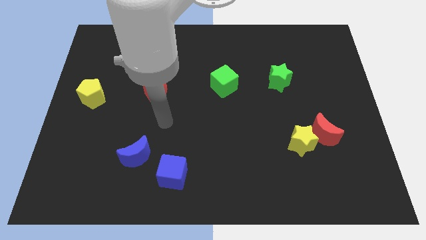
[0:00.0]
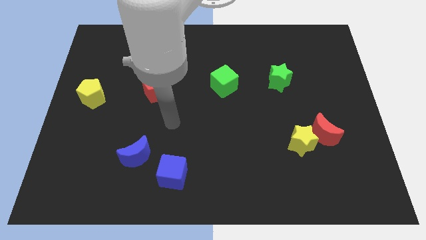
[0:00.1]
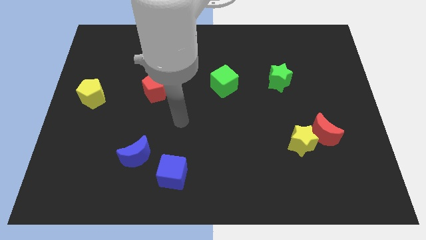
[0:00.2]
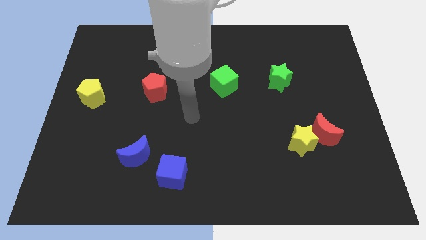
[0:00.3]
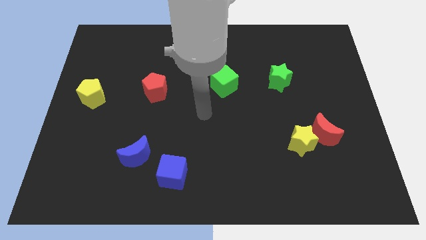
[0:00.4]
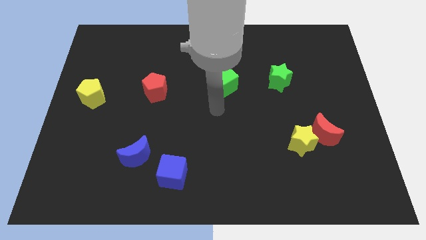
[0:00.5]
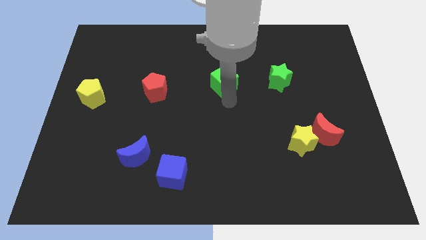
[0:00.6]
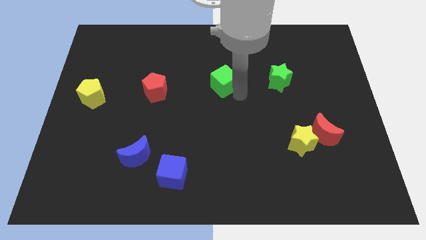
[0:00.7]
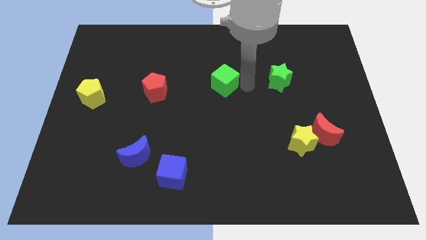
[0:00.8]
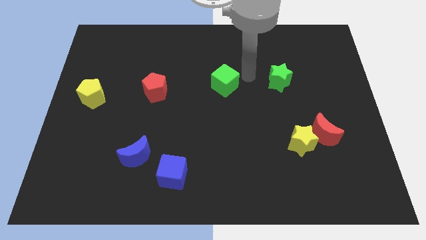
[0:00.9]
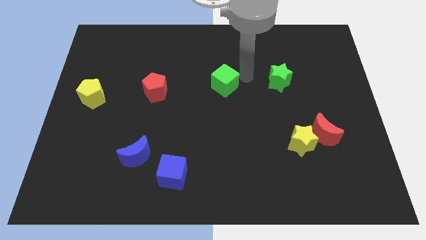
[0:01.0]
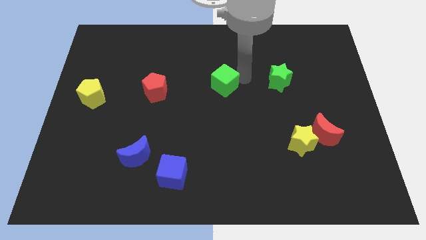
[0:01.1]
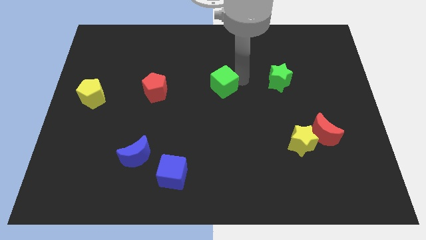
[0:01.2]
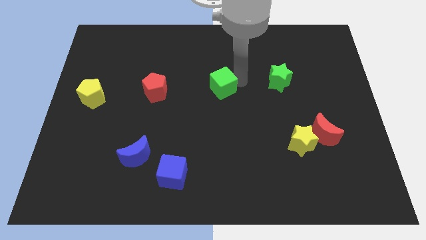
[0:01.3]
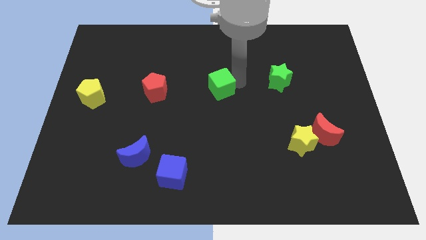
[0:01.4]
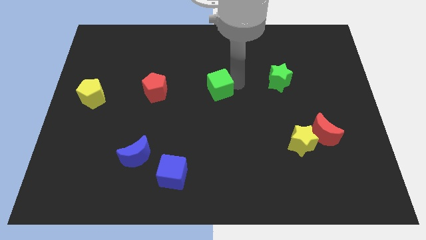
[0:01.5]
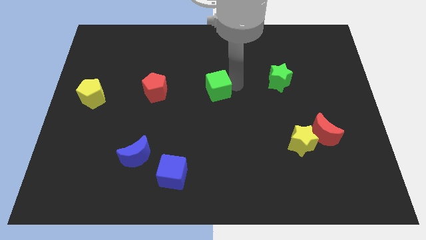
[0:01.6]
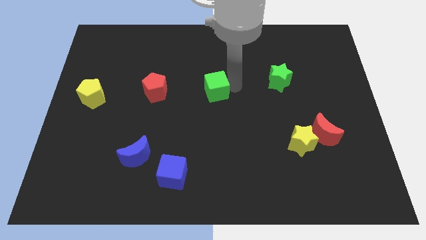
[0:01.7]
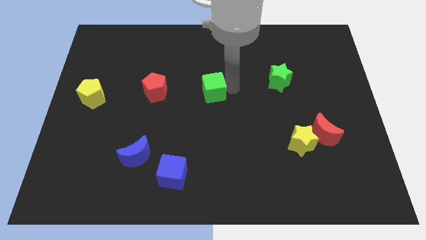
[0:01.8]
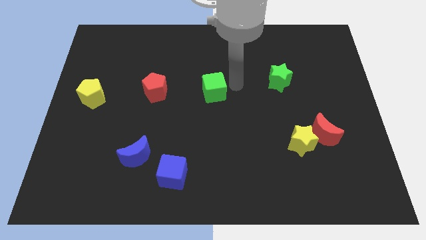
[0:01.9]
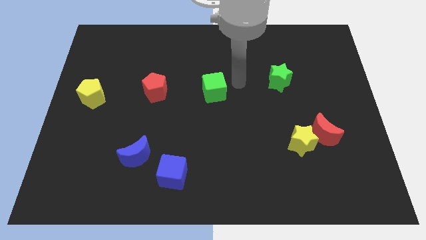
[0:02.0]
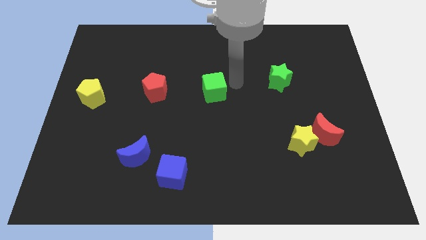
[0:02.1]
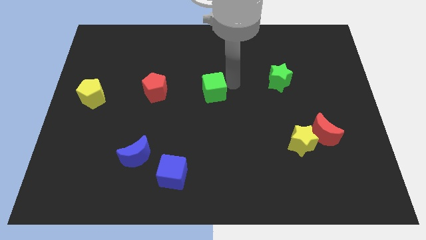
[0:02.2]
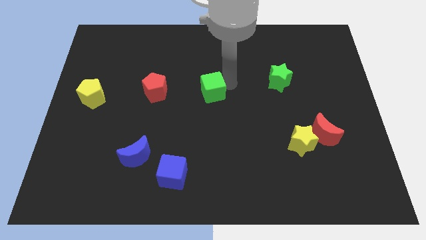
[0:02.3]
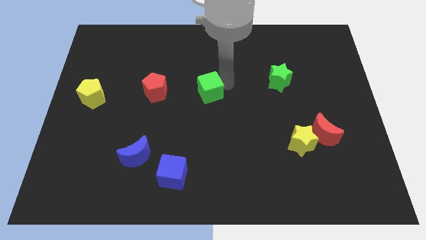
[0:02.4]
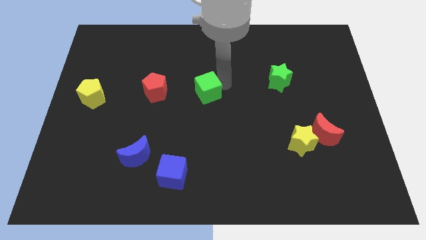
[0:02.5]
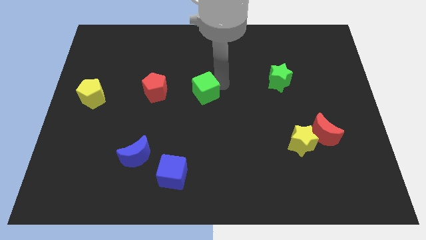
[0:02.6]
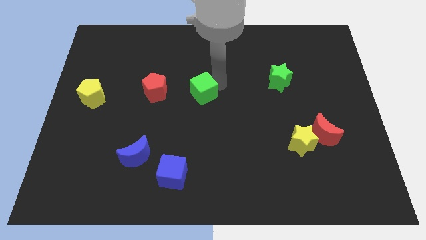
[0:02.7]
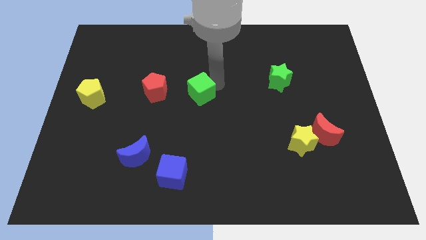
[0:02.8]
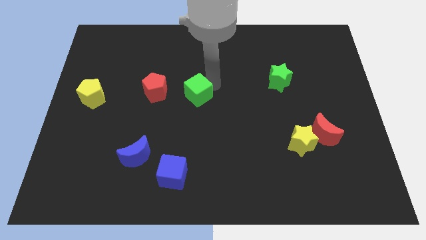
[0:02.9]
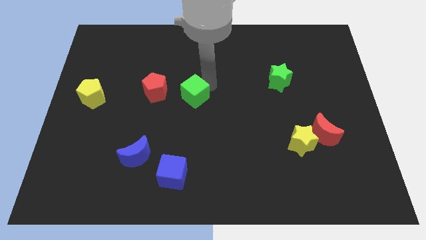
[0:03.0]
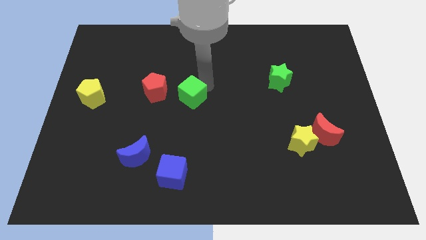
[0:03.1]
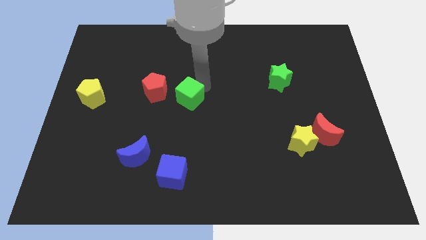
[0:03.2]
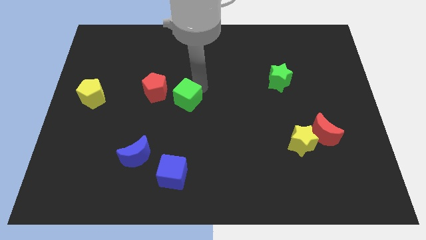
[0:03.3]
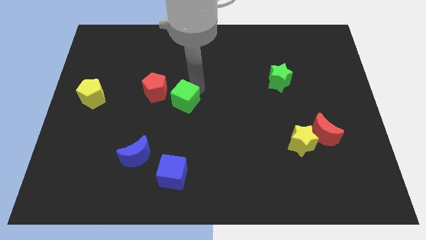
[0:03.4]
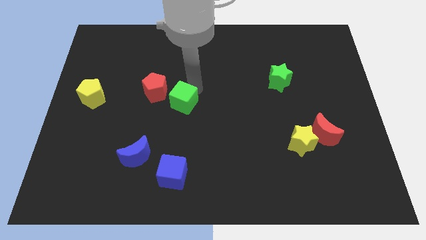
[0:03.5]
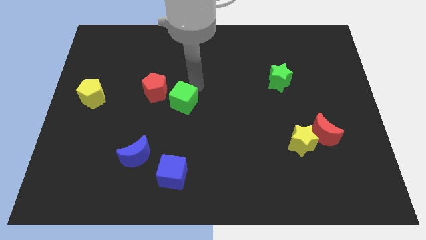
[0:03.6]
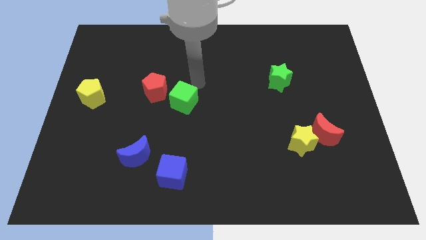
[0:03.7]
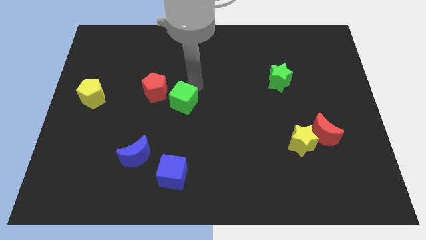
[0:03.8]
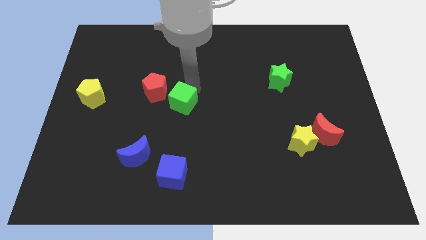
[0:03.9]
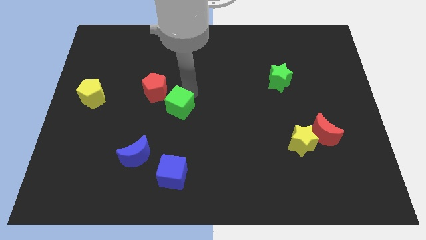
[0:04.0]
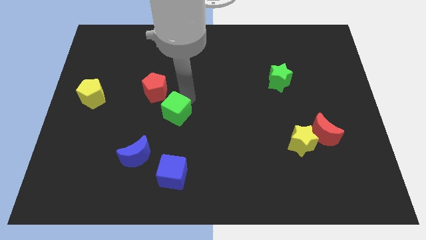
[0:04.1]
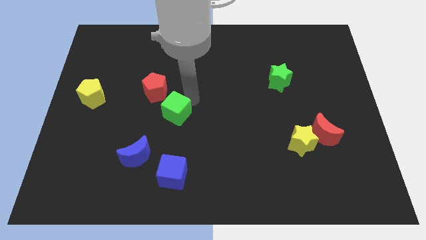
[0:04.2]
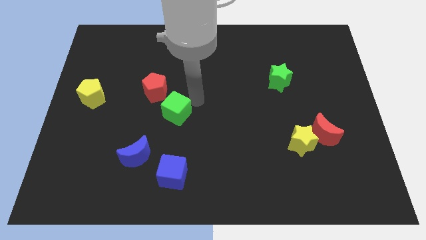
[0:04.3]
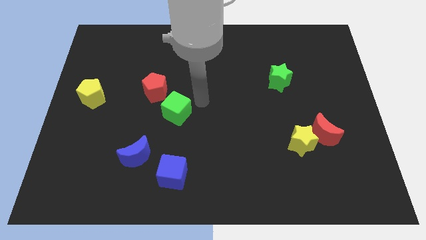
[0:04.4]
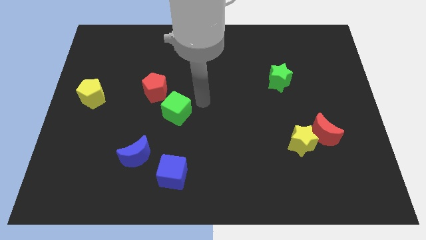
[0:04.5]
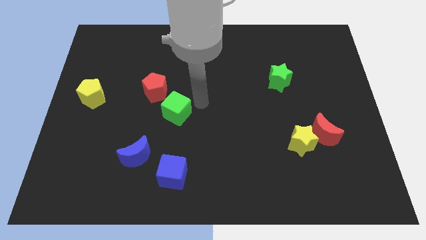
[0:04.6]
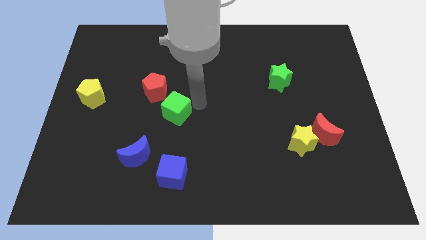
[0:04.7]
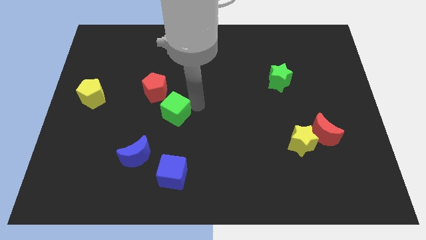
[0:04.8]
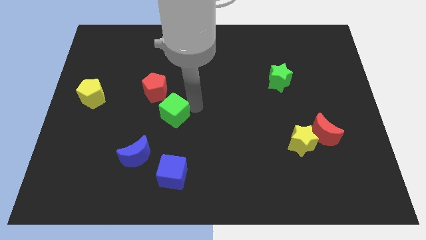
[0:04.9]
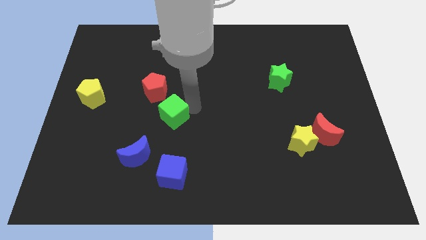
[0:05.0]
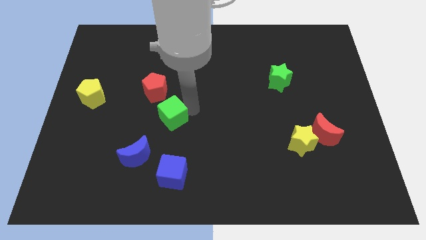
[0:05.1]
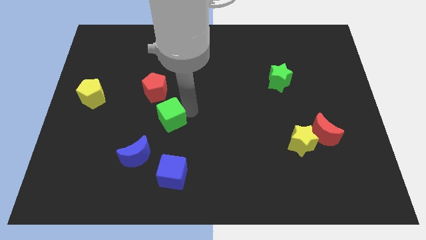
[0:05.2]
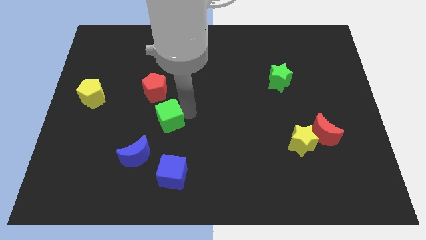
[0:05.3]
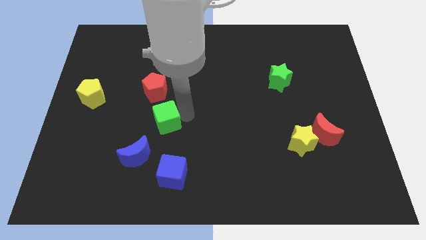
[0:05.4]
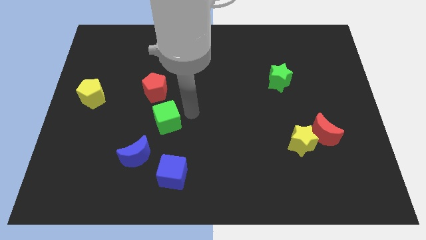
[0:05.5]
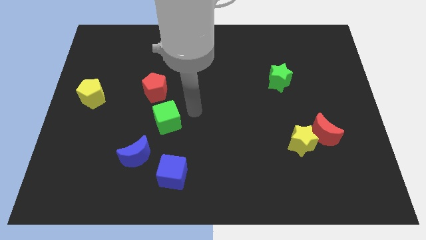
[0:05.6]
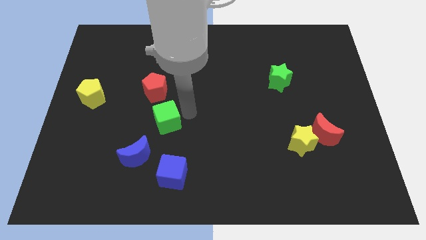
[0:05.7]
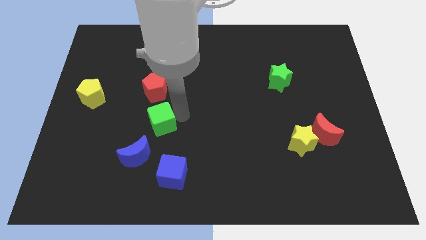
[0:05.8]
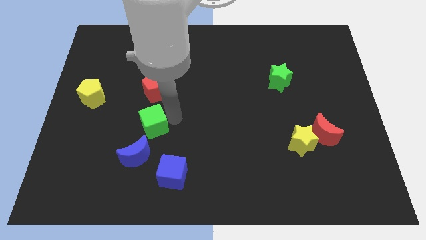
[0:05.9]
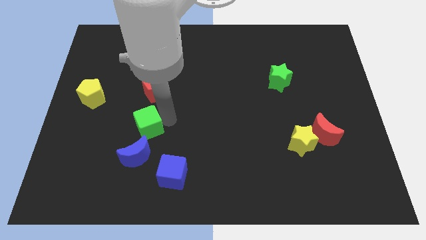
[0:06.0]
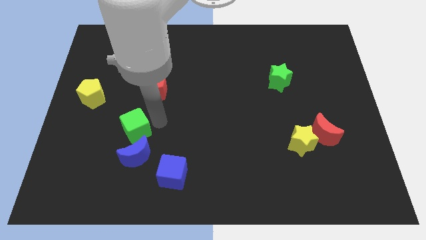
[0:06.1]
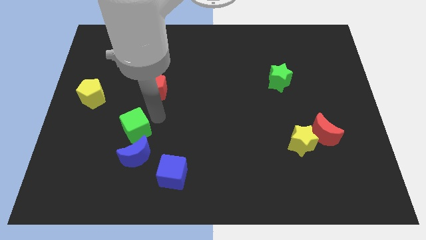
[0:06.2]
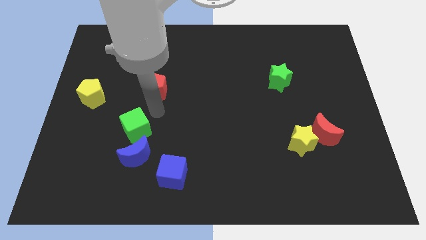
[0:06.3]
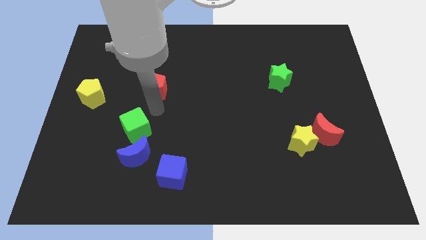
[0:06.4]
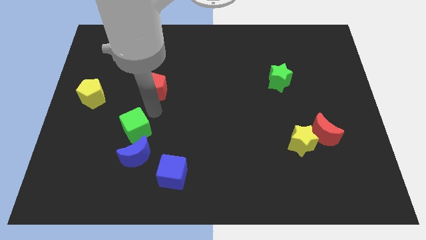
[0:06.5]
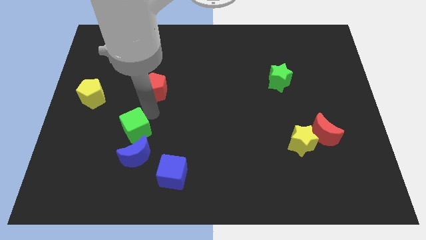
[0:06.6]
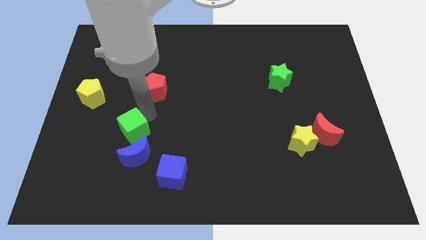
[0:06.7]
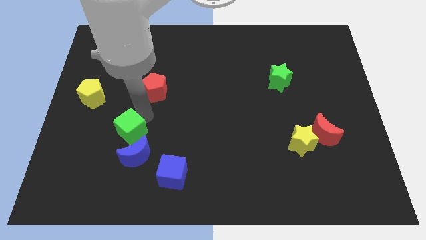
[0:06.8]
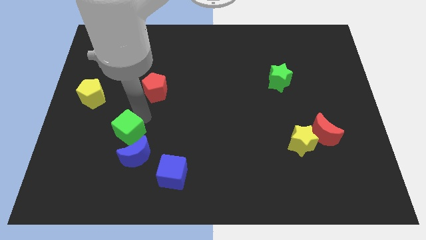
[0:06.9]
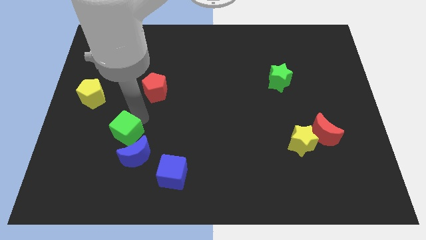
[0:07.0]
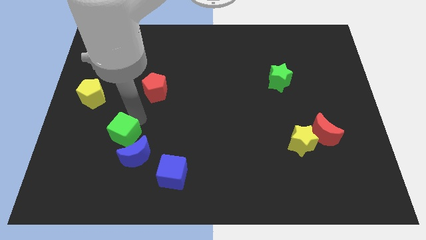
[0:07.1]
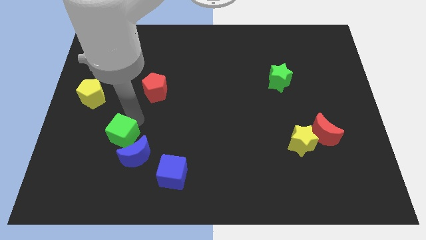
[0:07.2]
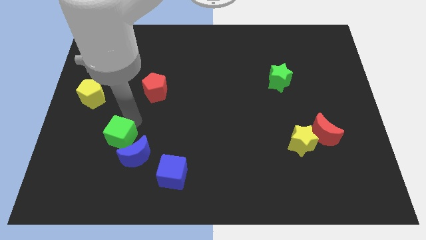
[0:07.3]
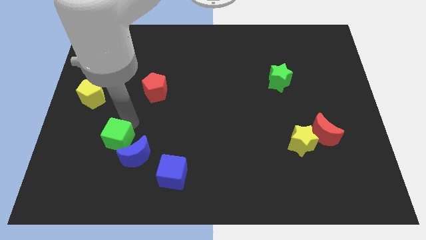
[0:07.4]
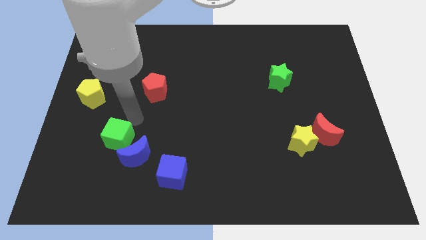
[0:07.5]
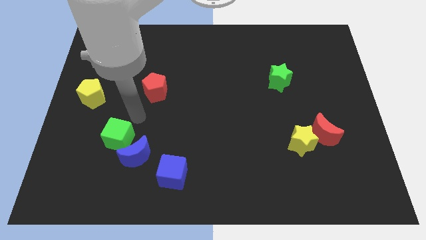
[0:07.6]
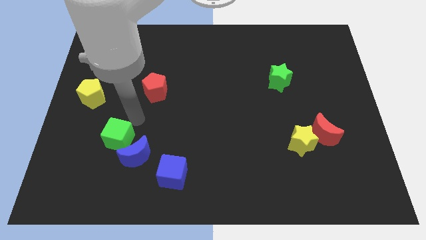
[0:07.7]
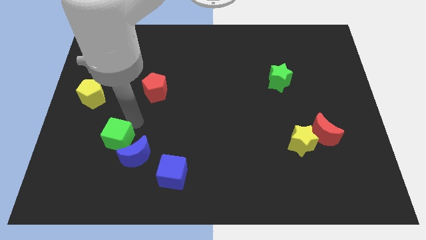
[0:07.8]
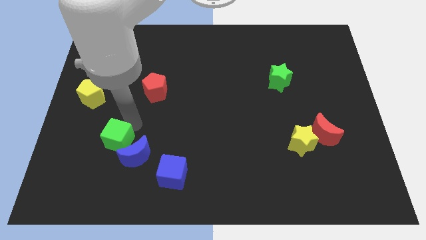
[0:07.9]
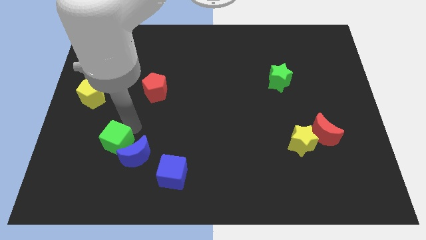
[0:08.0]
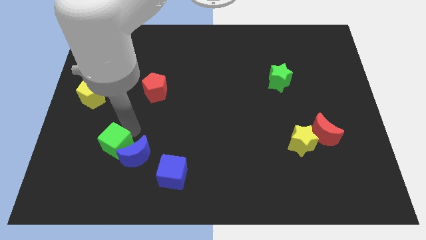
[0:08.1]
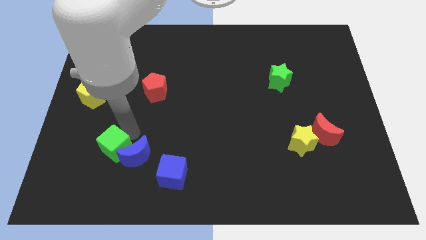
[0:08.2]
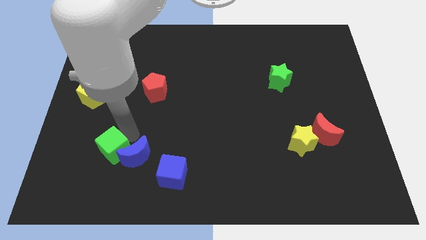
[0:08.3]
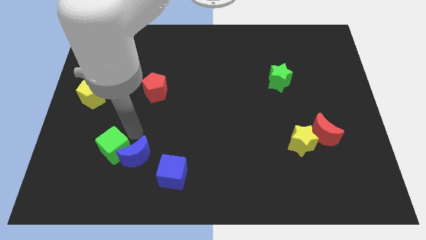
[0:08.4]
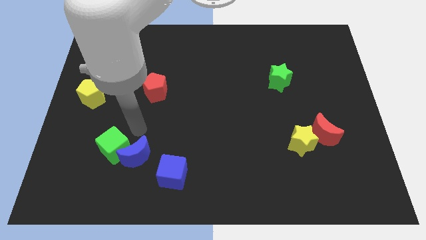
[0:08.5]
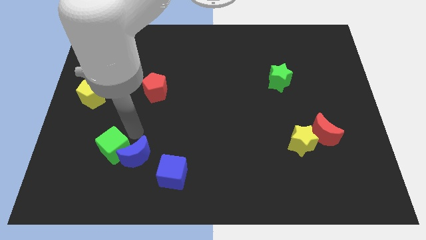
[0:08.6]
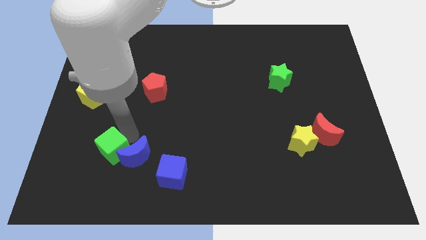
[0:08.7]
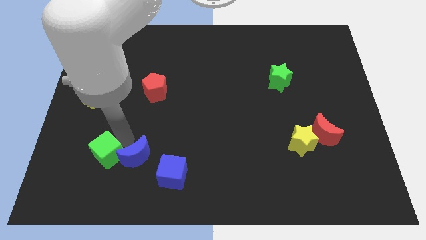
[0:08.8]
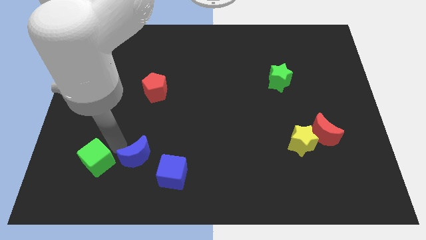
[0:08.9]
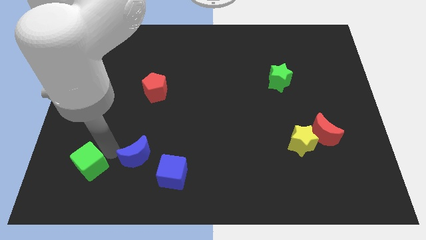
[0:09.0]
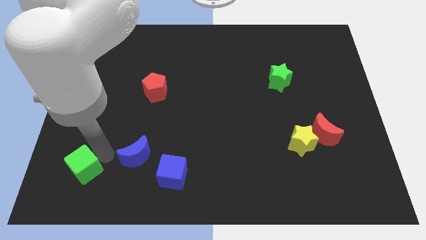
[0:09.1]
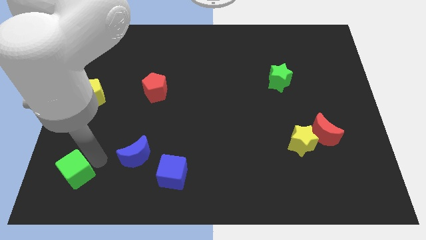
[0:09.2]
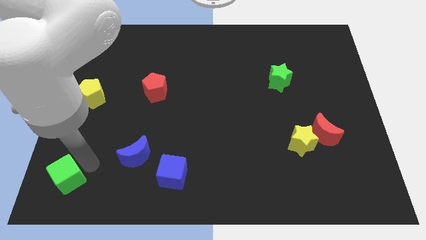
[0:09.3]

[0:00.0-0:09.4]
put the green cube to the bottom left corner
